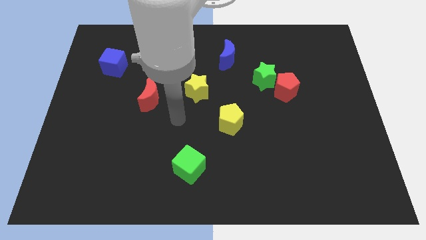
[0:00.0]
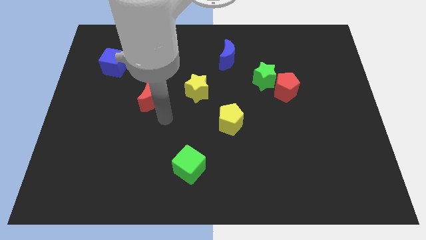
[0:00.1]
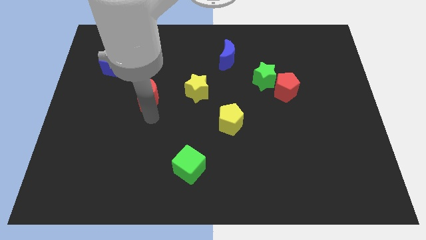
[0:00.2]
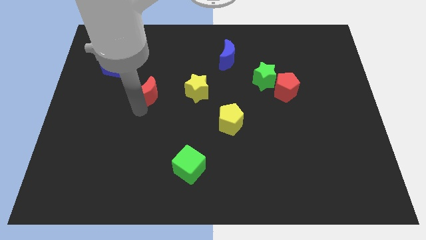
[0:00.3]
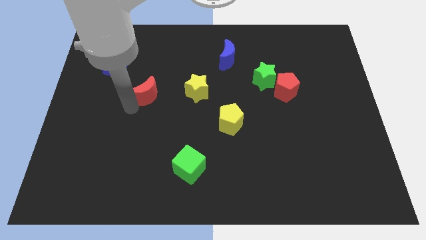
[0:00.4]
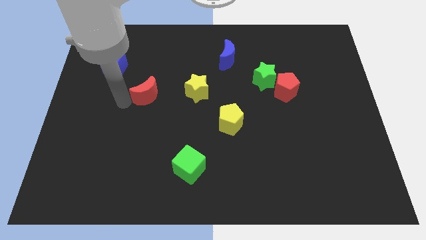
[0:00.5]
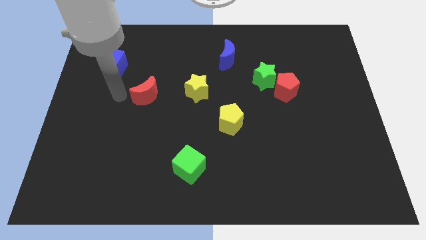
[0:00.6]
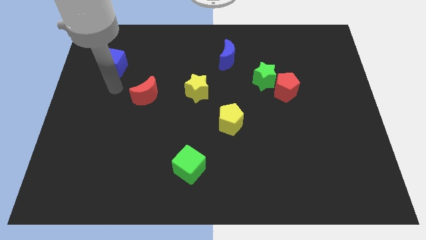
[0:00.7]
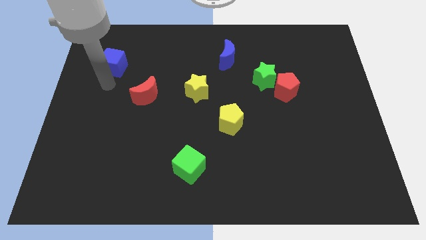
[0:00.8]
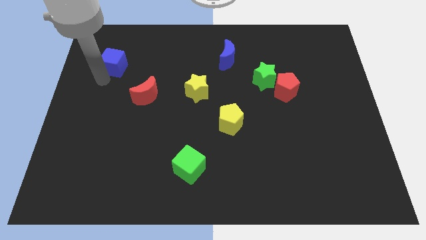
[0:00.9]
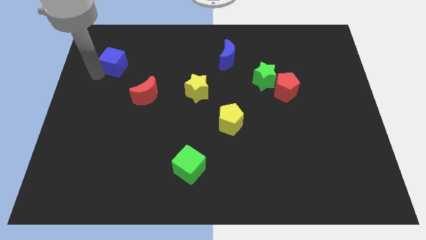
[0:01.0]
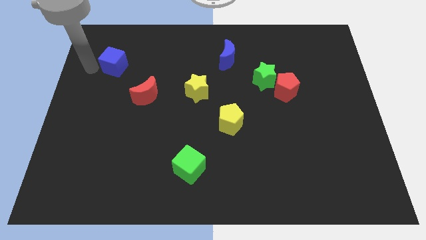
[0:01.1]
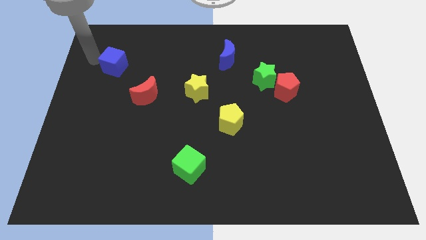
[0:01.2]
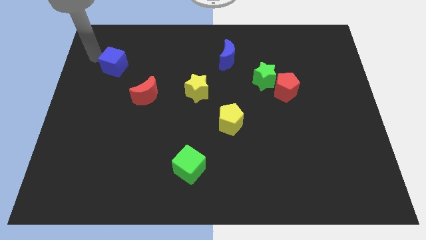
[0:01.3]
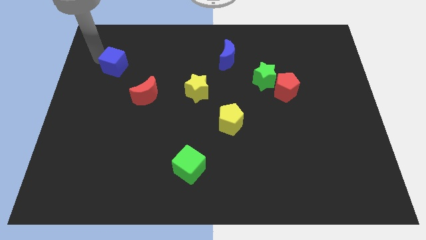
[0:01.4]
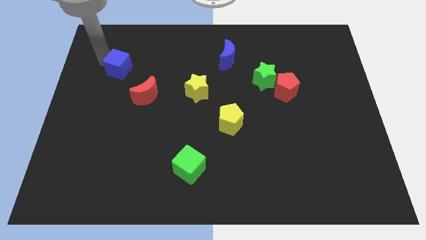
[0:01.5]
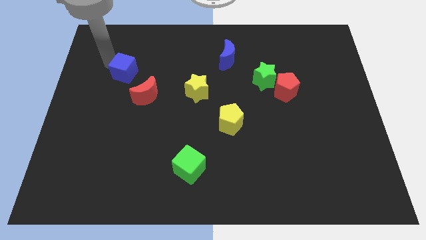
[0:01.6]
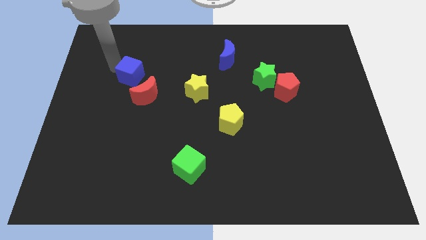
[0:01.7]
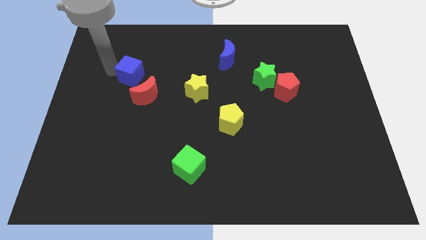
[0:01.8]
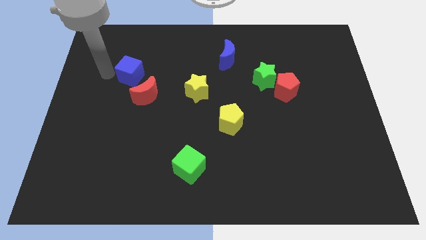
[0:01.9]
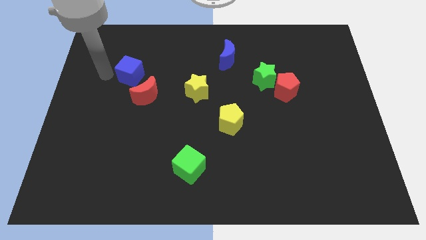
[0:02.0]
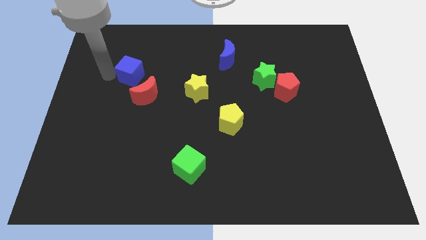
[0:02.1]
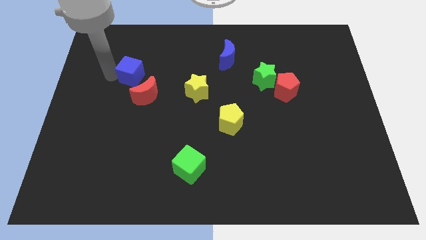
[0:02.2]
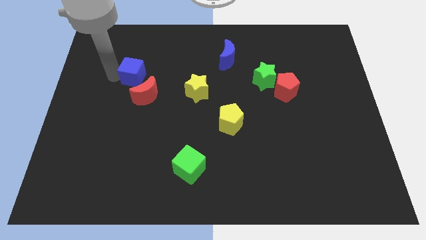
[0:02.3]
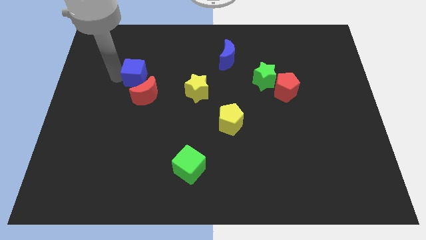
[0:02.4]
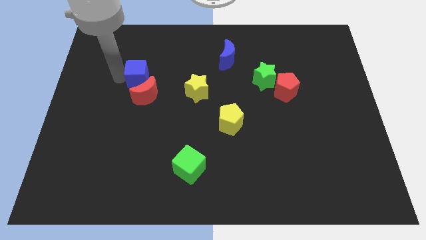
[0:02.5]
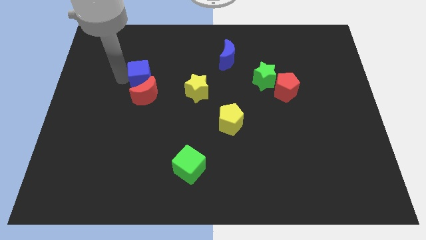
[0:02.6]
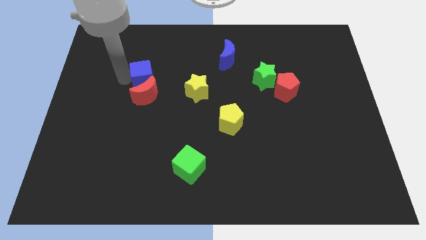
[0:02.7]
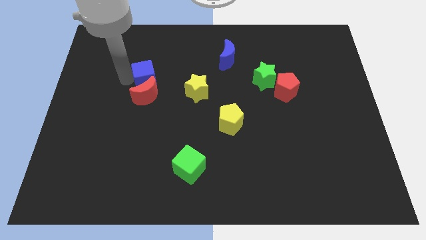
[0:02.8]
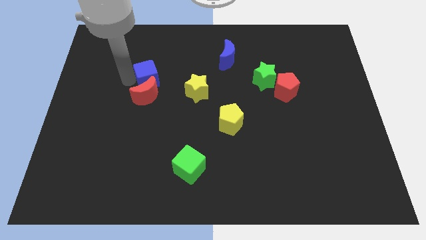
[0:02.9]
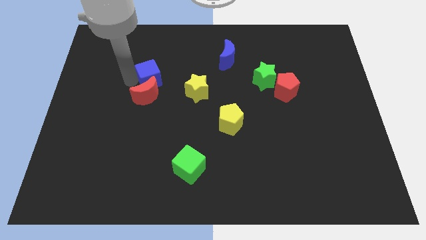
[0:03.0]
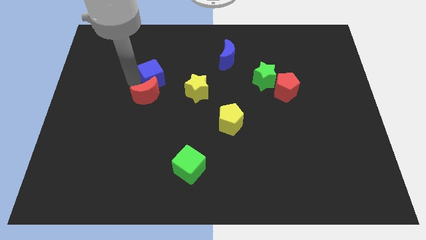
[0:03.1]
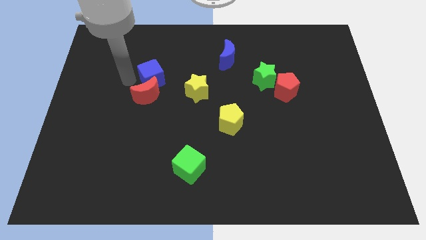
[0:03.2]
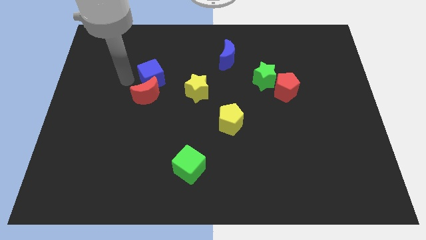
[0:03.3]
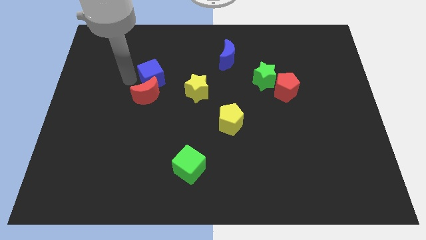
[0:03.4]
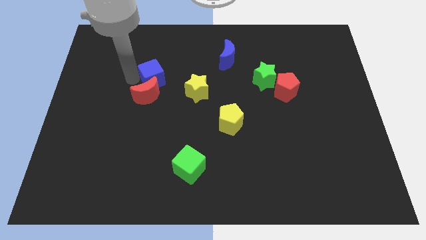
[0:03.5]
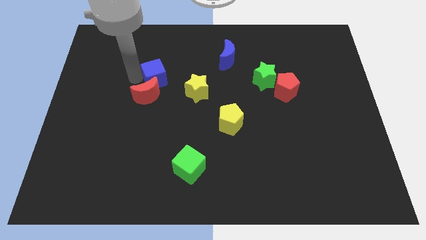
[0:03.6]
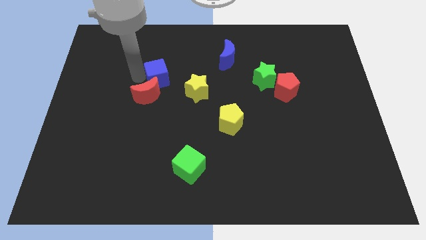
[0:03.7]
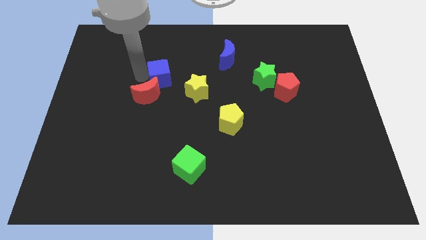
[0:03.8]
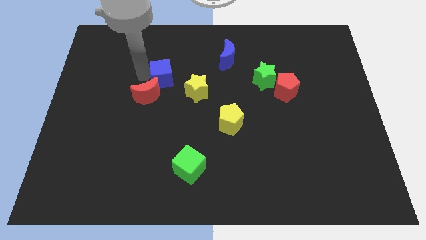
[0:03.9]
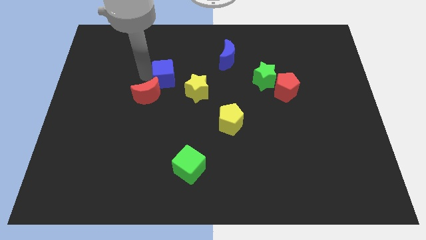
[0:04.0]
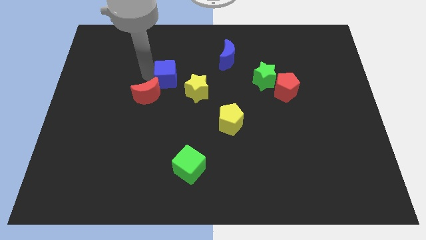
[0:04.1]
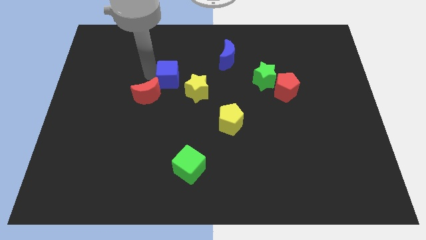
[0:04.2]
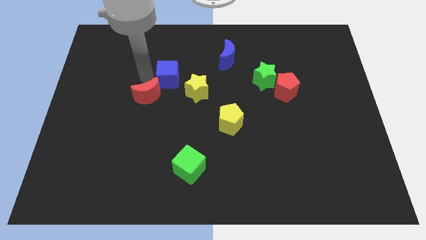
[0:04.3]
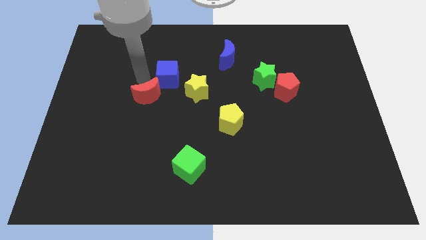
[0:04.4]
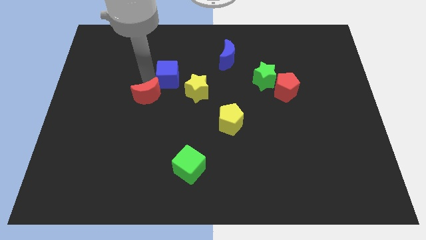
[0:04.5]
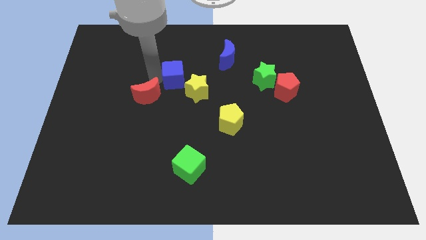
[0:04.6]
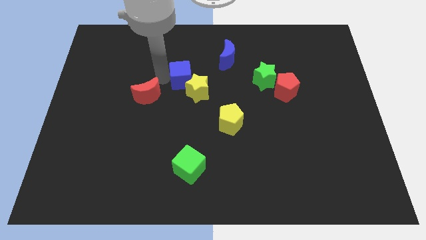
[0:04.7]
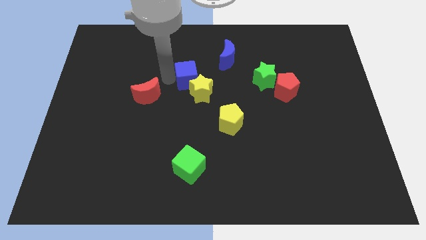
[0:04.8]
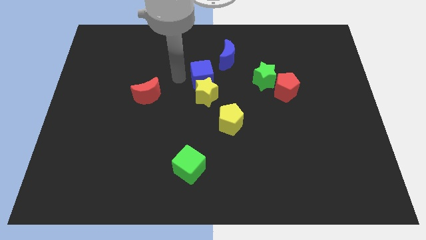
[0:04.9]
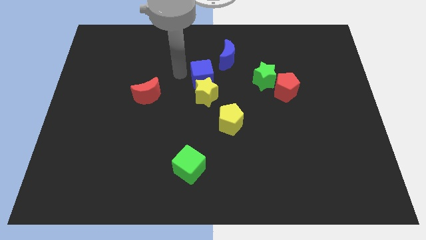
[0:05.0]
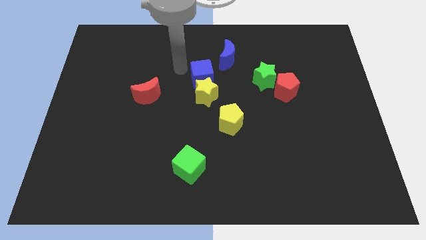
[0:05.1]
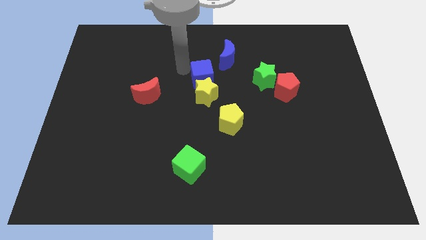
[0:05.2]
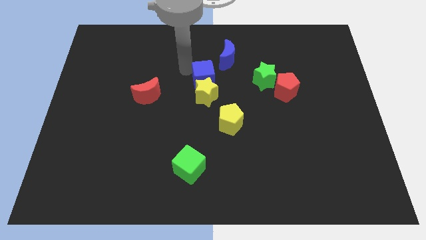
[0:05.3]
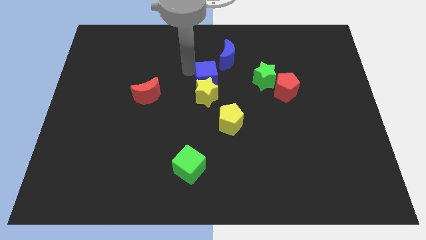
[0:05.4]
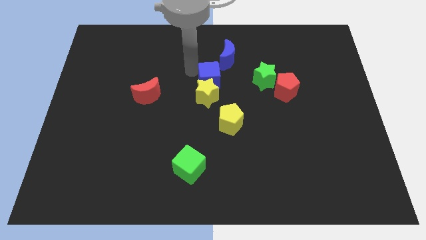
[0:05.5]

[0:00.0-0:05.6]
slide the blue cube to the top side of the yellow pentagon

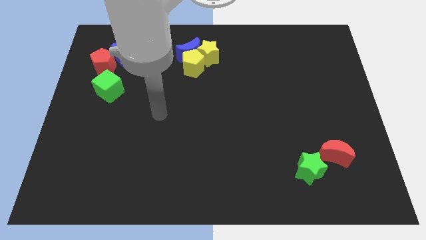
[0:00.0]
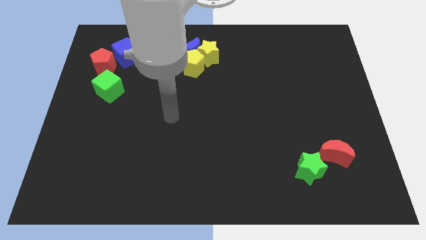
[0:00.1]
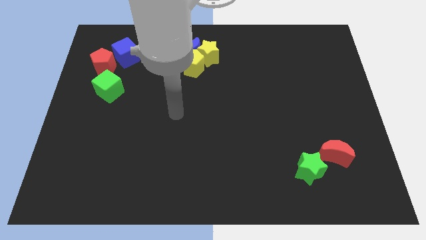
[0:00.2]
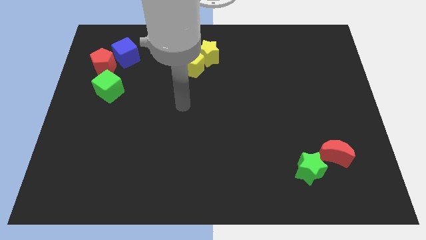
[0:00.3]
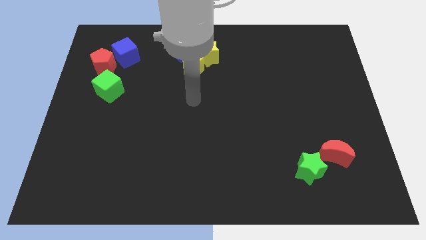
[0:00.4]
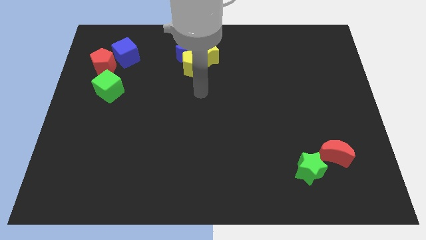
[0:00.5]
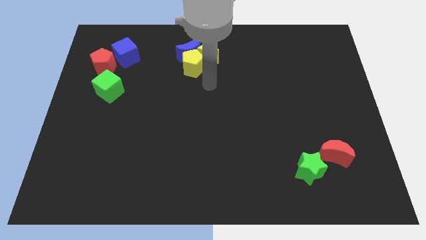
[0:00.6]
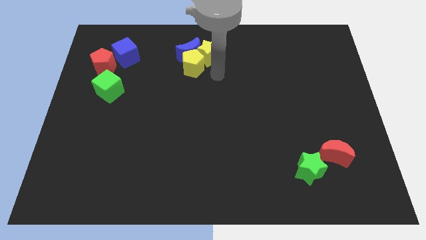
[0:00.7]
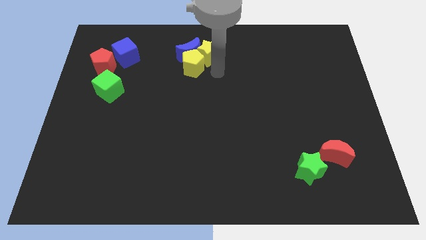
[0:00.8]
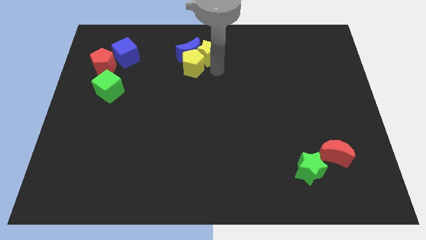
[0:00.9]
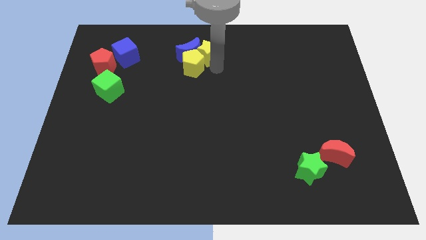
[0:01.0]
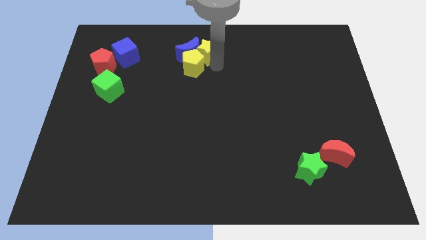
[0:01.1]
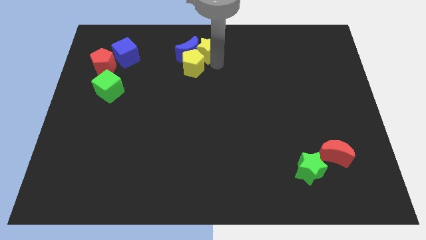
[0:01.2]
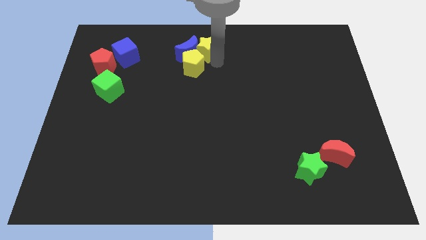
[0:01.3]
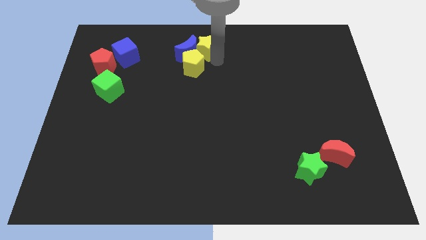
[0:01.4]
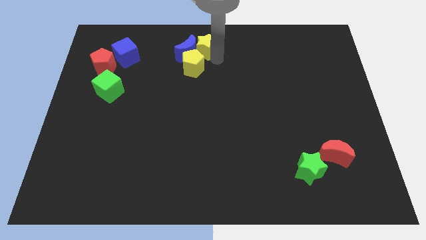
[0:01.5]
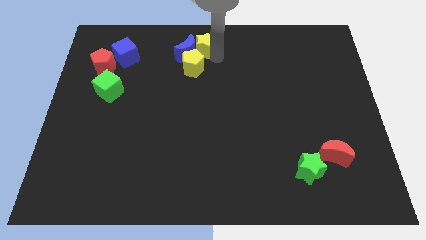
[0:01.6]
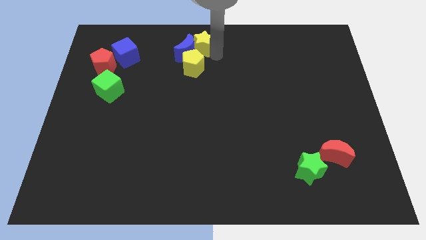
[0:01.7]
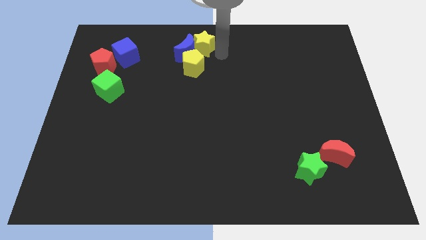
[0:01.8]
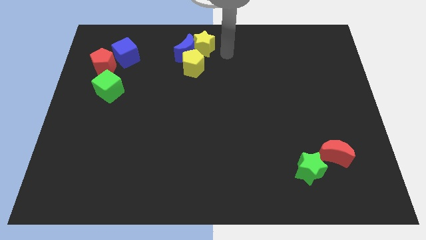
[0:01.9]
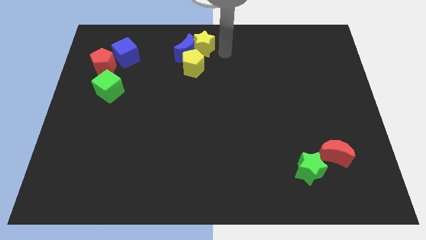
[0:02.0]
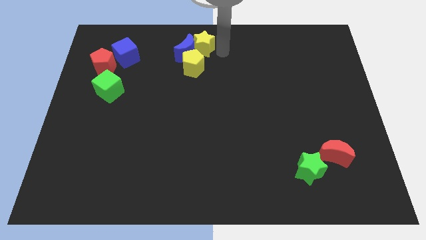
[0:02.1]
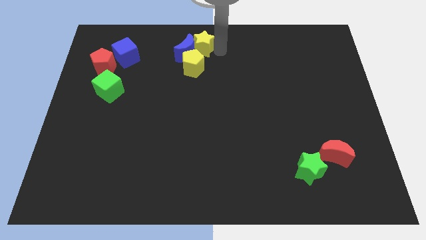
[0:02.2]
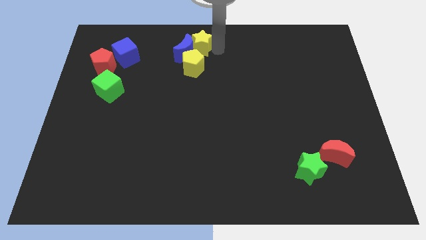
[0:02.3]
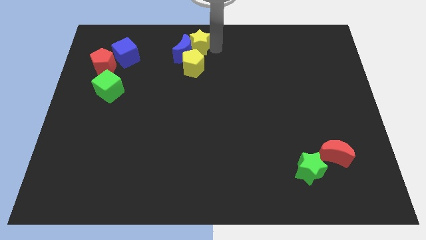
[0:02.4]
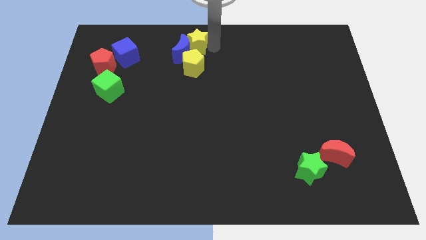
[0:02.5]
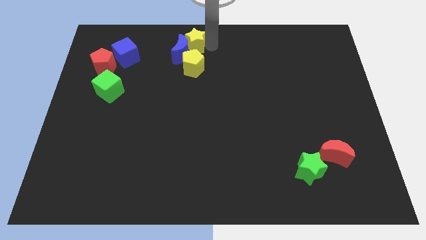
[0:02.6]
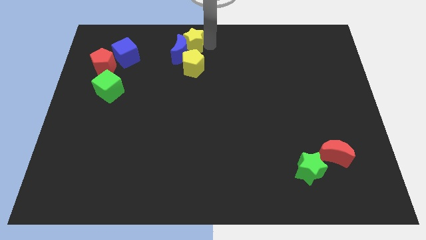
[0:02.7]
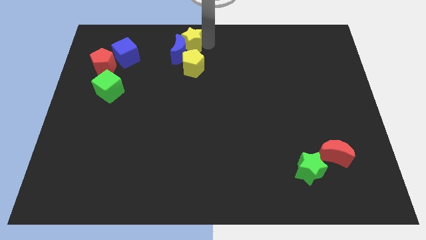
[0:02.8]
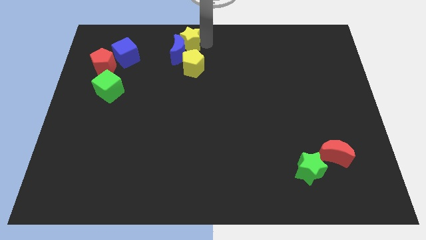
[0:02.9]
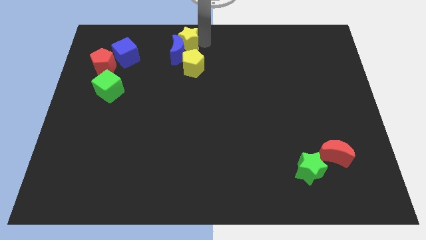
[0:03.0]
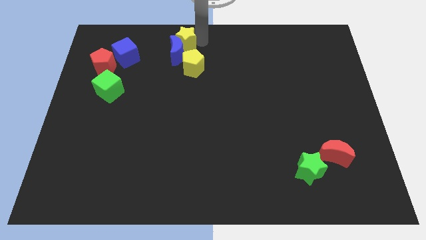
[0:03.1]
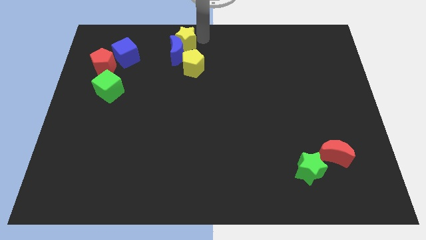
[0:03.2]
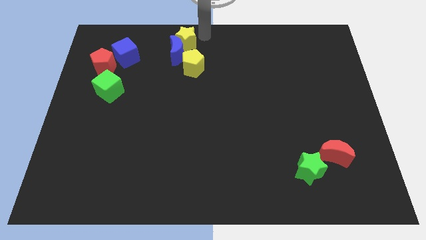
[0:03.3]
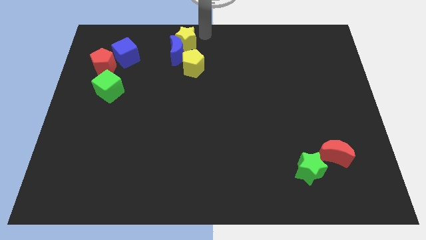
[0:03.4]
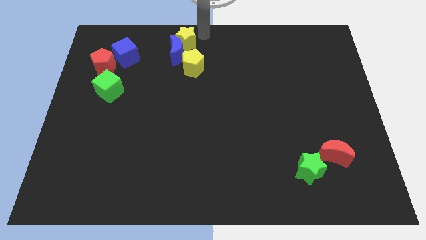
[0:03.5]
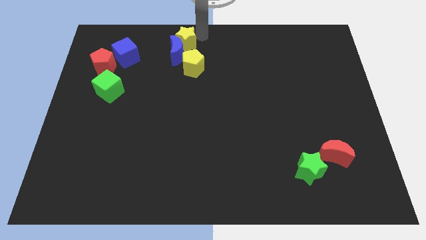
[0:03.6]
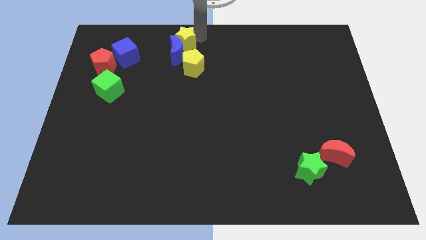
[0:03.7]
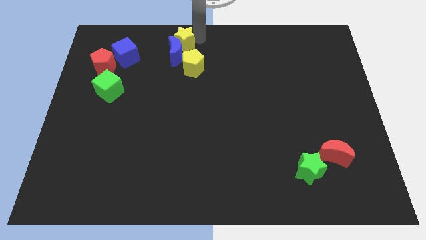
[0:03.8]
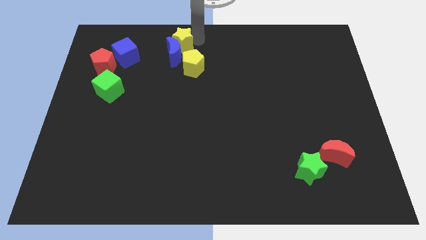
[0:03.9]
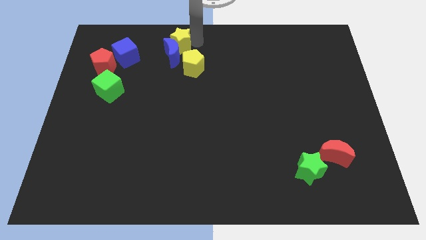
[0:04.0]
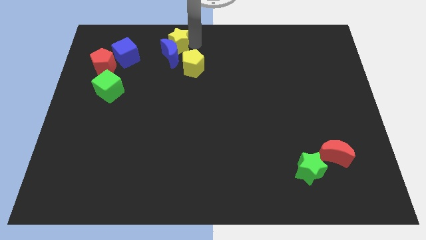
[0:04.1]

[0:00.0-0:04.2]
push the yellow star to the right of the blue cube
